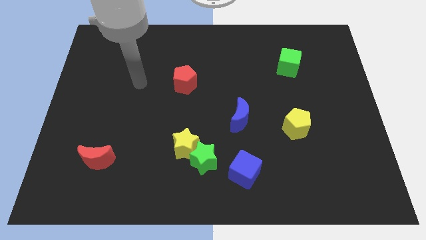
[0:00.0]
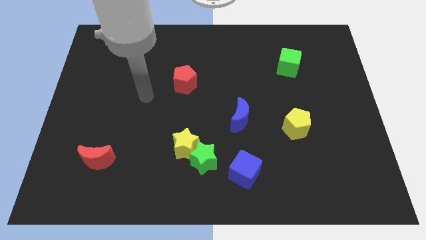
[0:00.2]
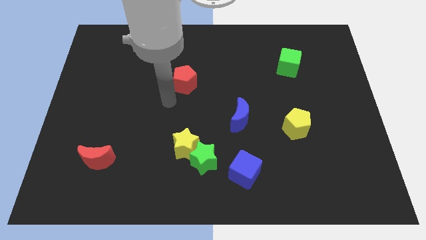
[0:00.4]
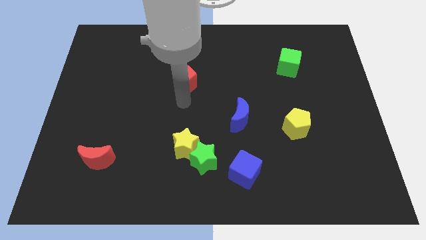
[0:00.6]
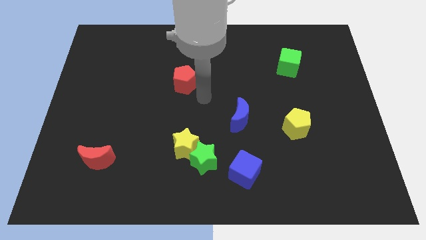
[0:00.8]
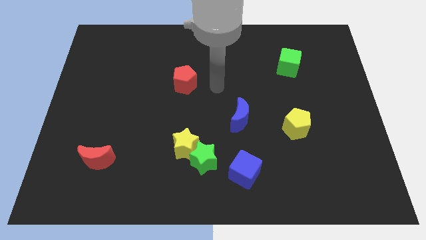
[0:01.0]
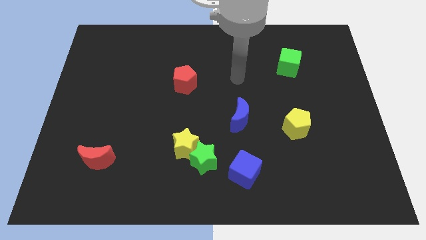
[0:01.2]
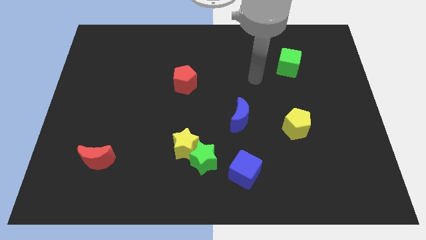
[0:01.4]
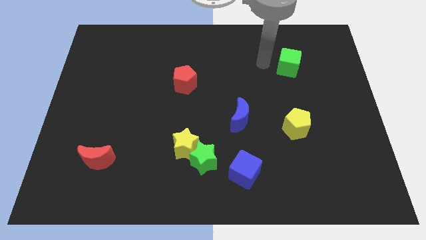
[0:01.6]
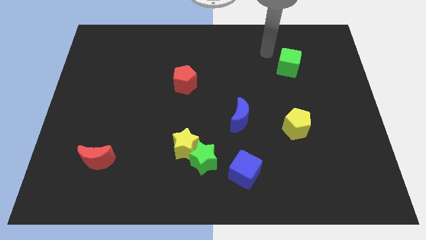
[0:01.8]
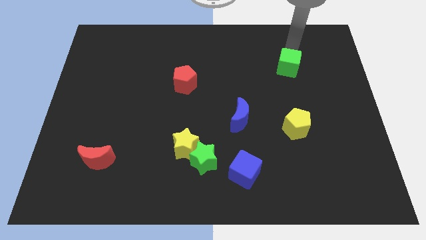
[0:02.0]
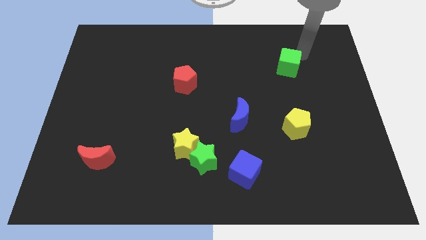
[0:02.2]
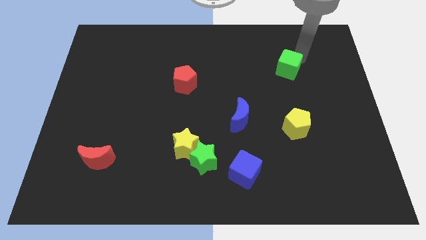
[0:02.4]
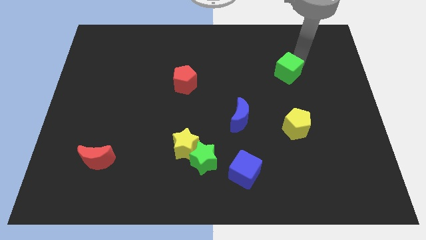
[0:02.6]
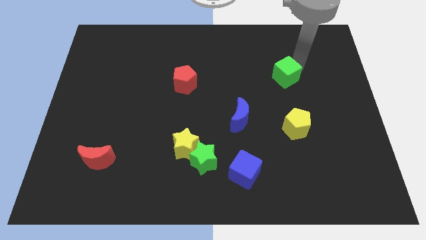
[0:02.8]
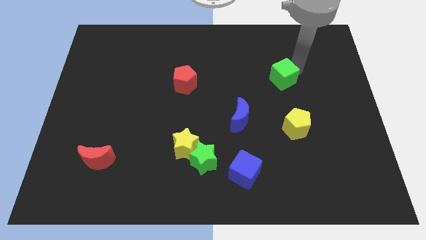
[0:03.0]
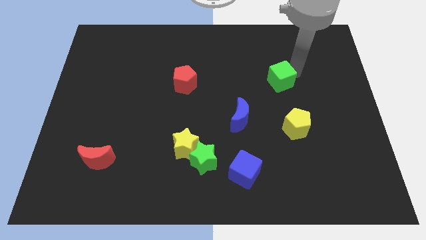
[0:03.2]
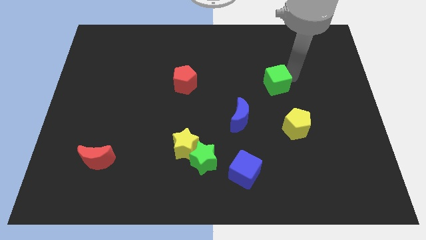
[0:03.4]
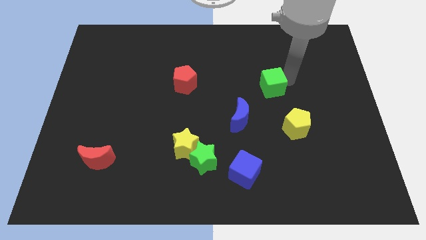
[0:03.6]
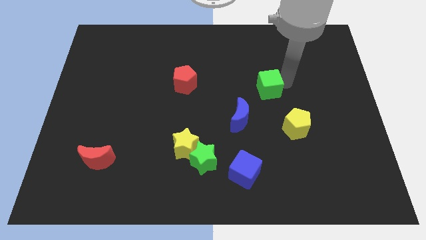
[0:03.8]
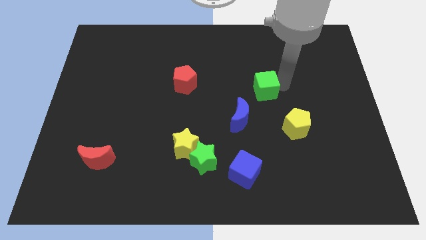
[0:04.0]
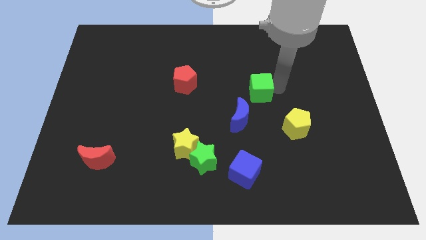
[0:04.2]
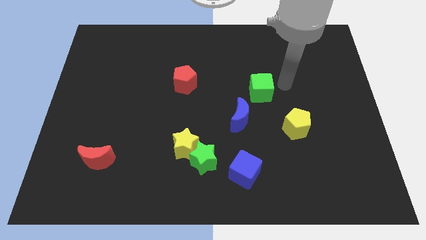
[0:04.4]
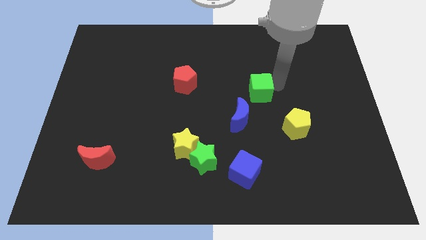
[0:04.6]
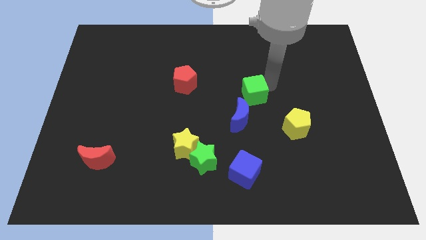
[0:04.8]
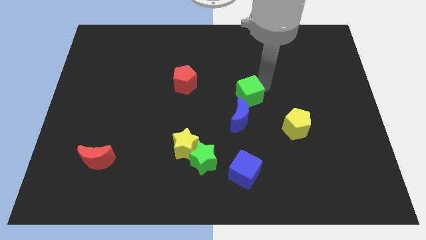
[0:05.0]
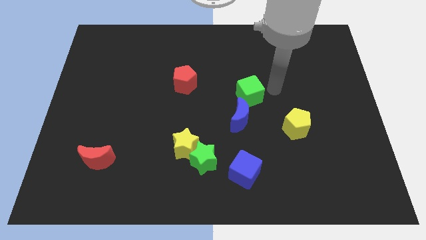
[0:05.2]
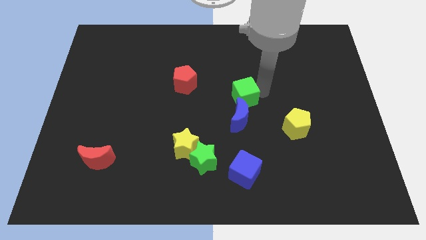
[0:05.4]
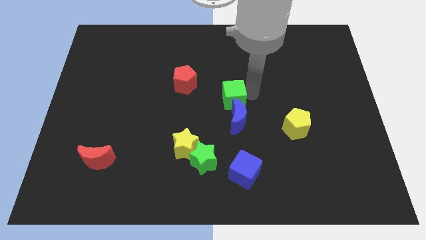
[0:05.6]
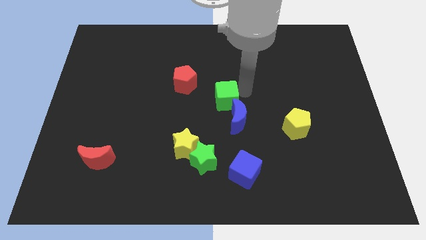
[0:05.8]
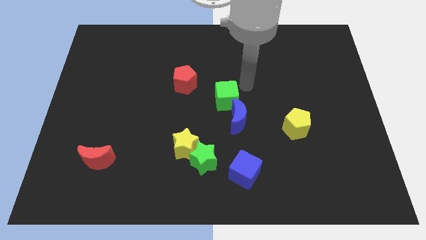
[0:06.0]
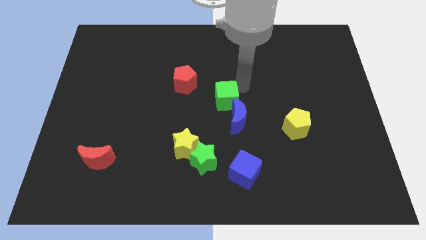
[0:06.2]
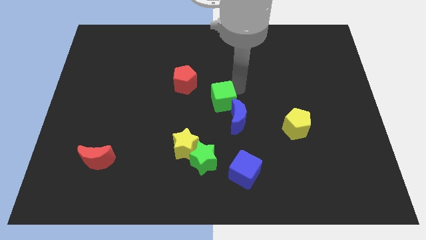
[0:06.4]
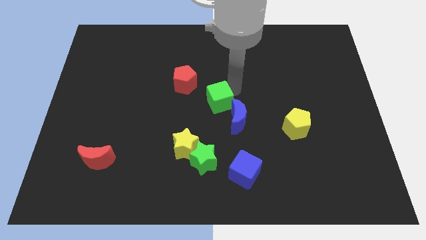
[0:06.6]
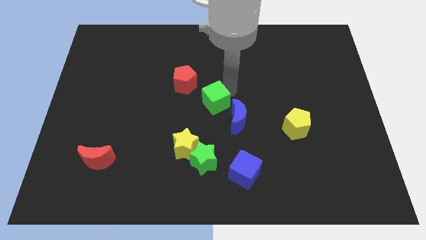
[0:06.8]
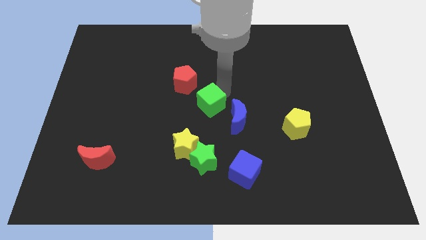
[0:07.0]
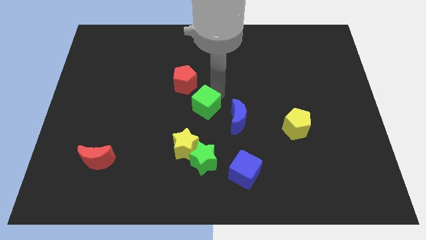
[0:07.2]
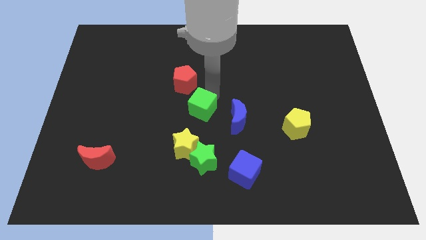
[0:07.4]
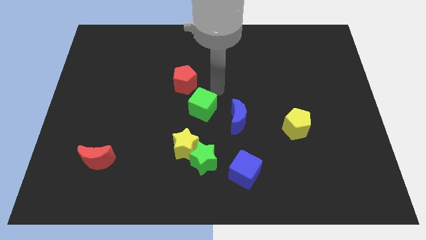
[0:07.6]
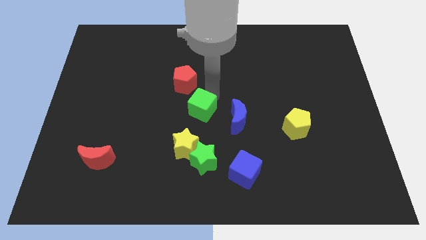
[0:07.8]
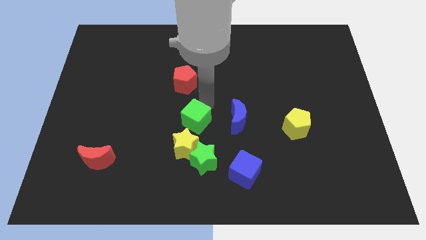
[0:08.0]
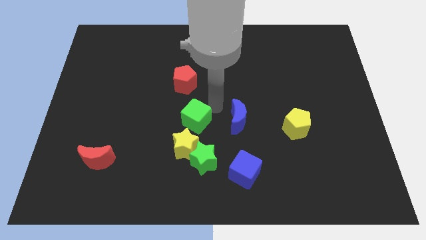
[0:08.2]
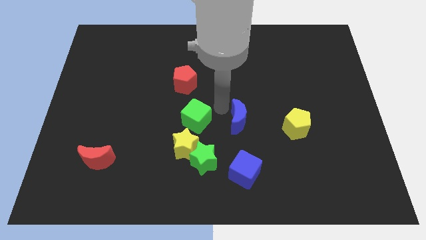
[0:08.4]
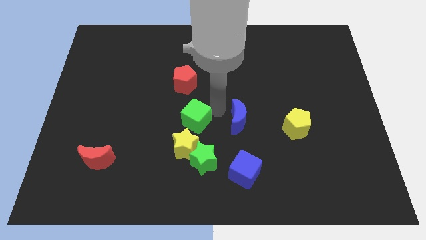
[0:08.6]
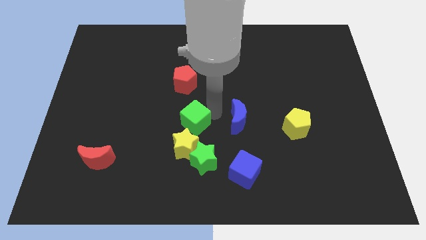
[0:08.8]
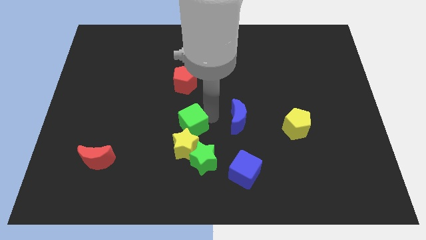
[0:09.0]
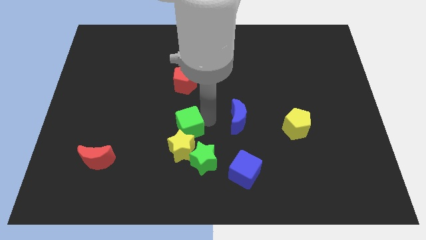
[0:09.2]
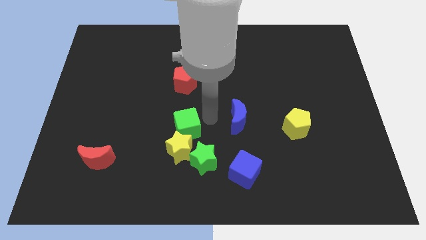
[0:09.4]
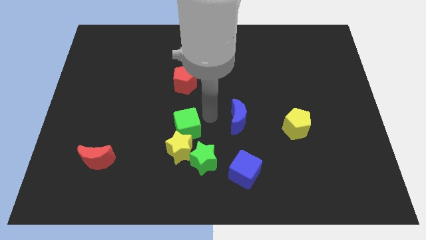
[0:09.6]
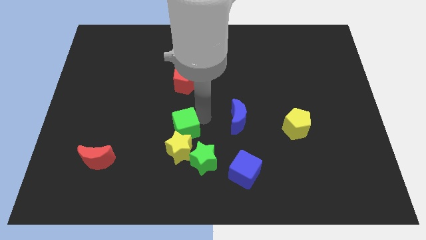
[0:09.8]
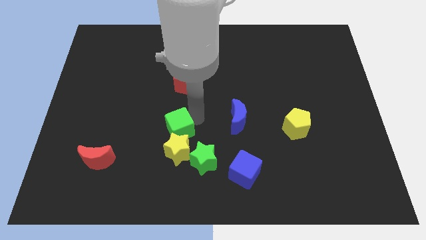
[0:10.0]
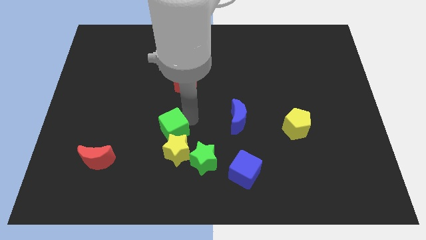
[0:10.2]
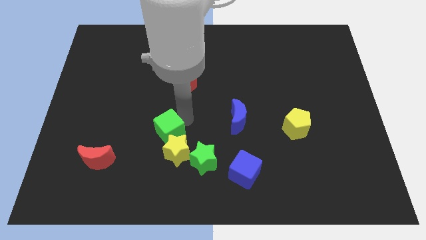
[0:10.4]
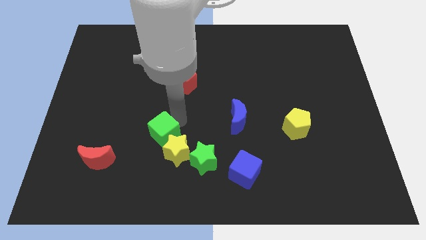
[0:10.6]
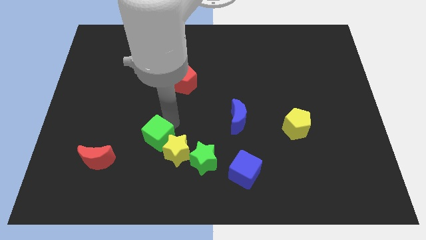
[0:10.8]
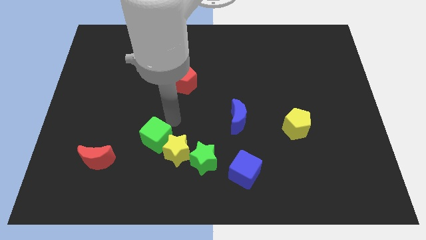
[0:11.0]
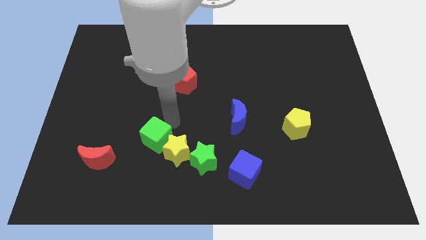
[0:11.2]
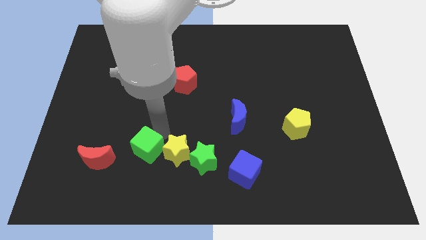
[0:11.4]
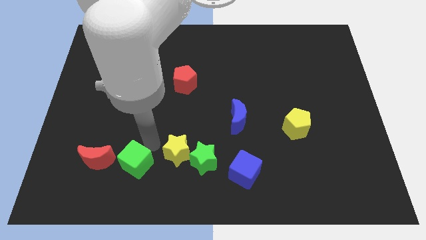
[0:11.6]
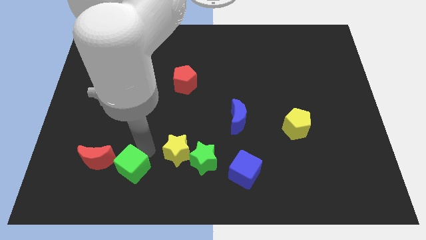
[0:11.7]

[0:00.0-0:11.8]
slide the green cube diagonally down and to the right of the red moon
